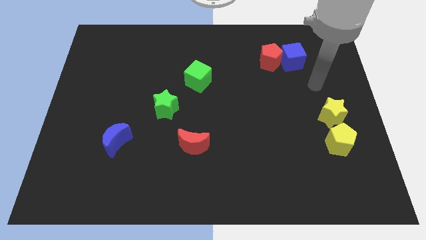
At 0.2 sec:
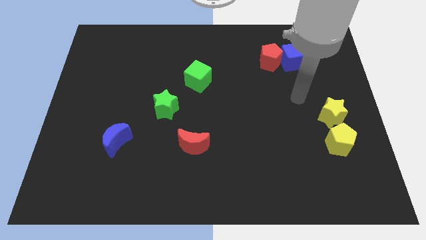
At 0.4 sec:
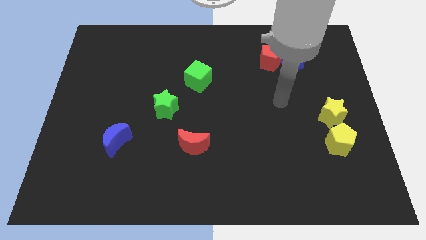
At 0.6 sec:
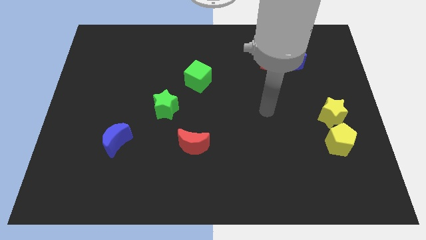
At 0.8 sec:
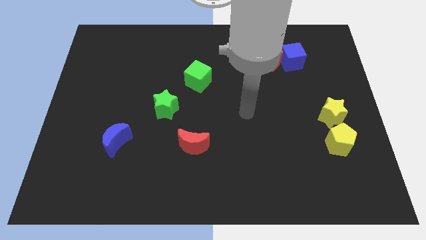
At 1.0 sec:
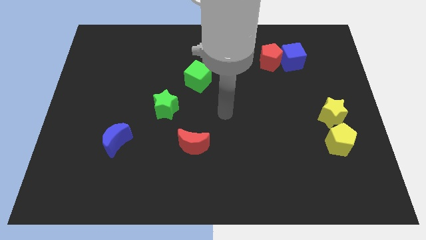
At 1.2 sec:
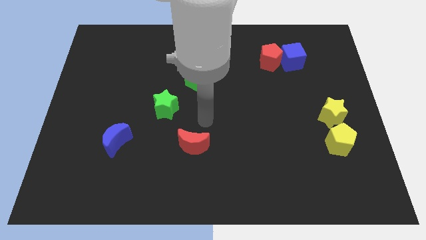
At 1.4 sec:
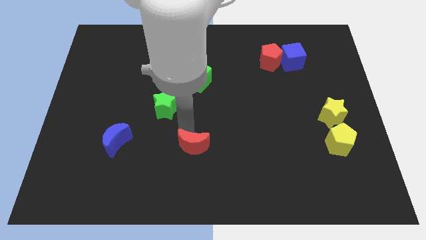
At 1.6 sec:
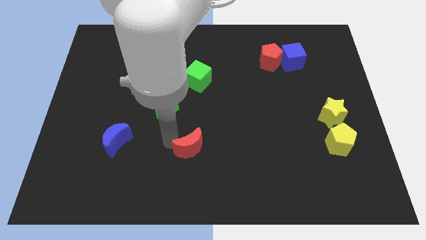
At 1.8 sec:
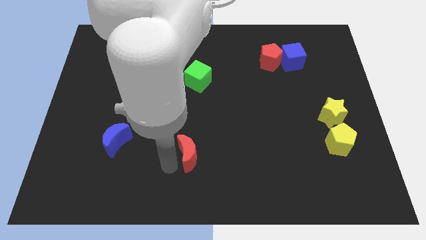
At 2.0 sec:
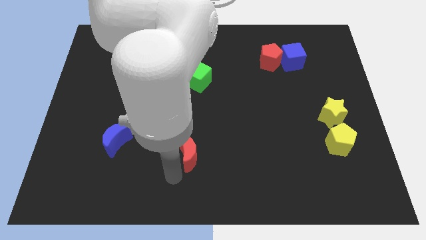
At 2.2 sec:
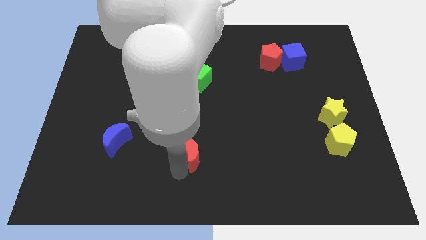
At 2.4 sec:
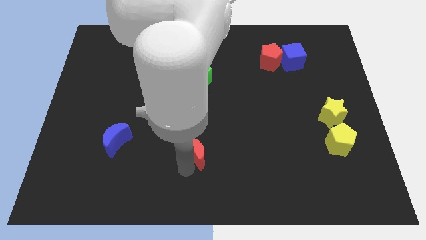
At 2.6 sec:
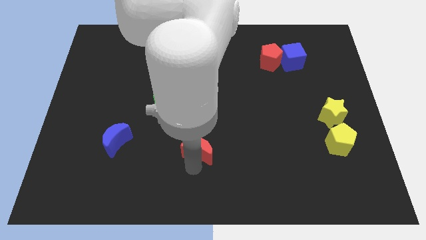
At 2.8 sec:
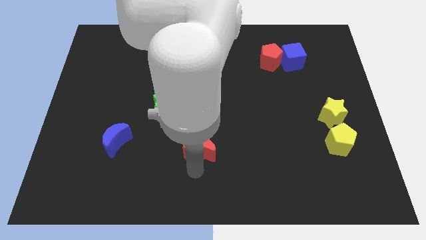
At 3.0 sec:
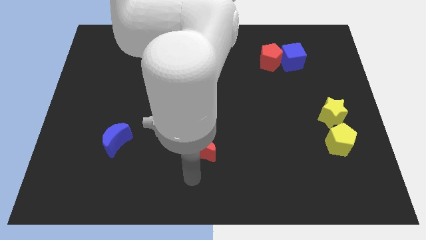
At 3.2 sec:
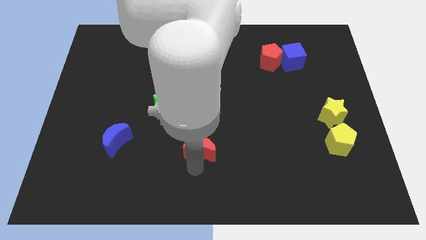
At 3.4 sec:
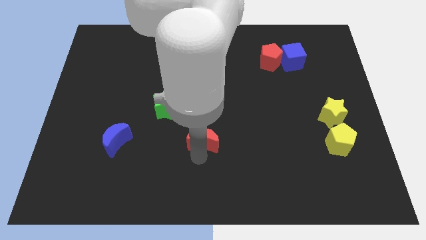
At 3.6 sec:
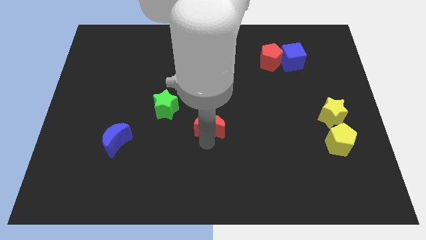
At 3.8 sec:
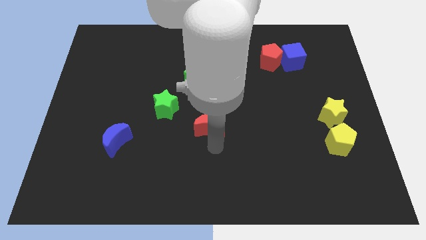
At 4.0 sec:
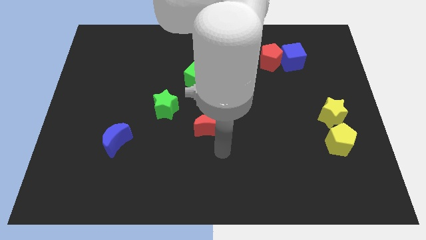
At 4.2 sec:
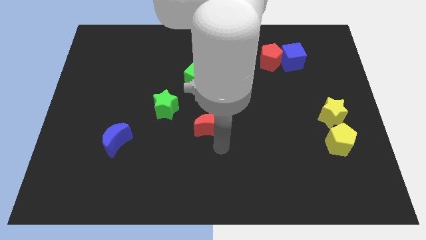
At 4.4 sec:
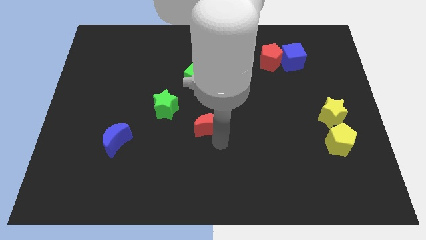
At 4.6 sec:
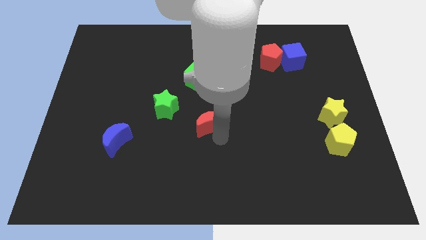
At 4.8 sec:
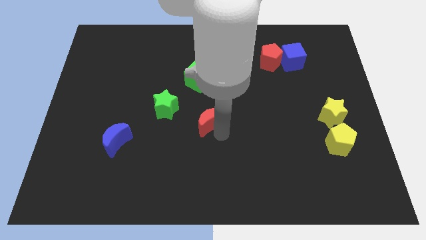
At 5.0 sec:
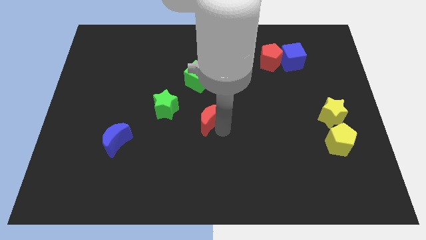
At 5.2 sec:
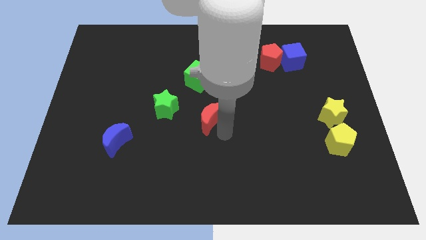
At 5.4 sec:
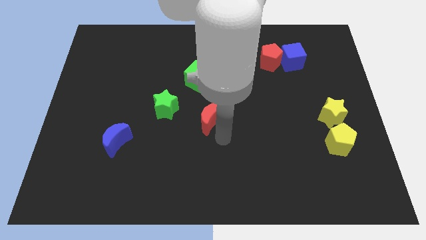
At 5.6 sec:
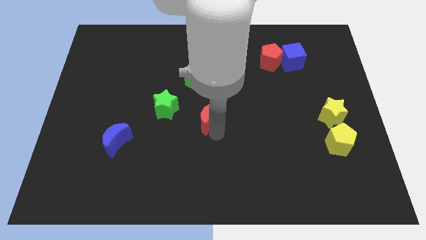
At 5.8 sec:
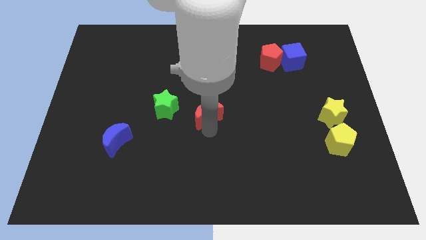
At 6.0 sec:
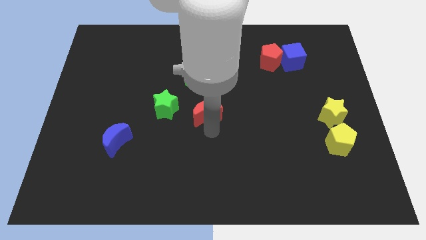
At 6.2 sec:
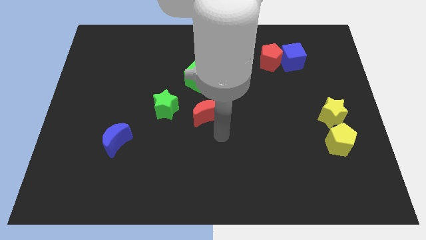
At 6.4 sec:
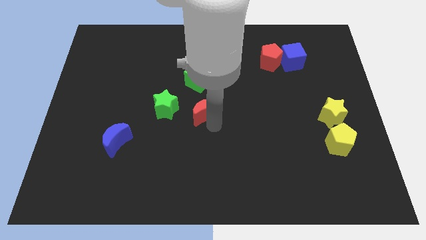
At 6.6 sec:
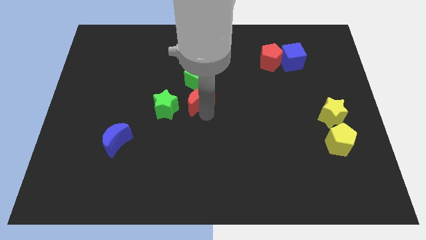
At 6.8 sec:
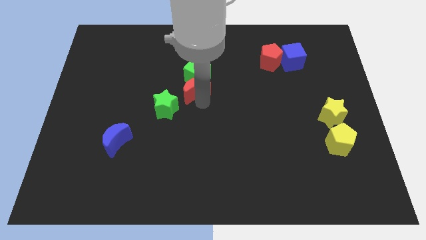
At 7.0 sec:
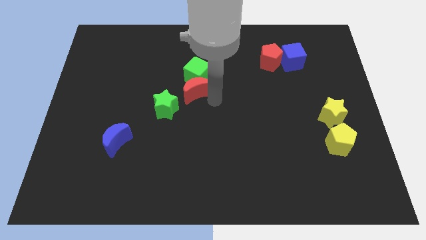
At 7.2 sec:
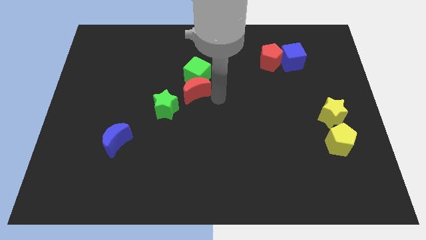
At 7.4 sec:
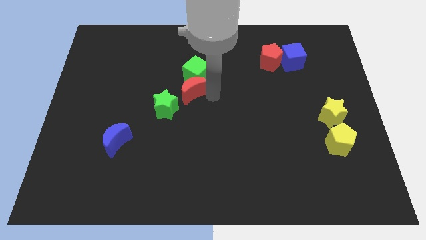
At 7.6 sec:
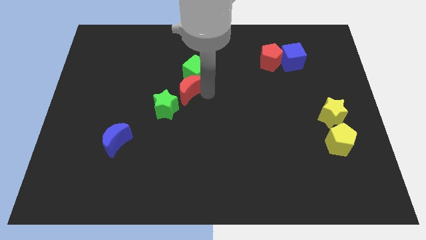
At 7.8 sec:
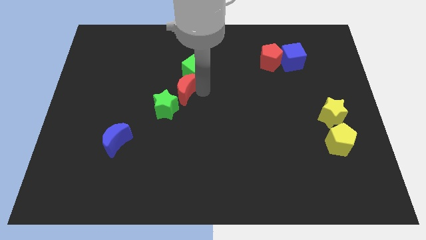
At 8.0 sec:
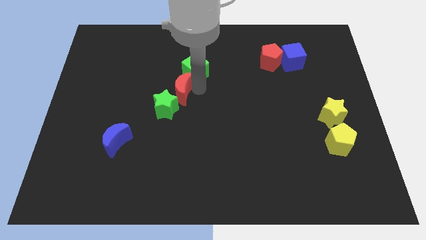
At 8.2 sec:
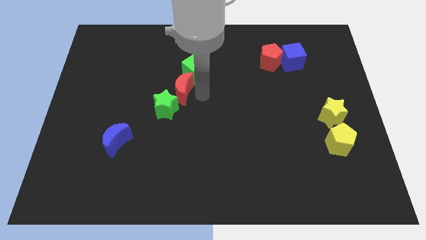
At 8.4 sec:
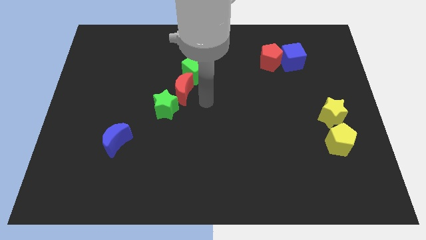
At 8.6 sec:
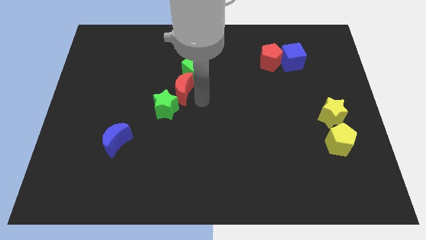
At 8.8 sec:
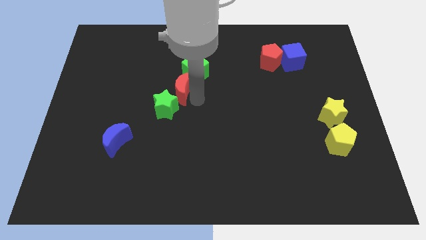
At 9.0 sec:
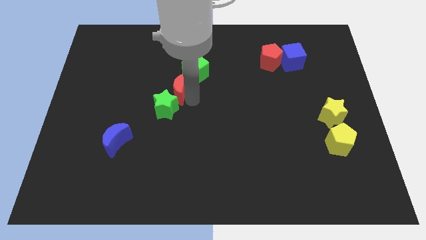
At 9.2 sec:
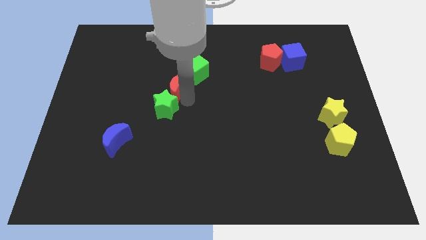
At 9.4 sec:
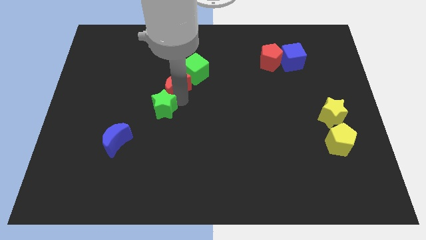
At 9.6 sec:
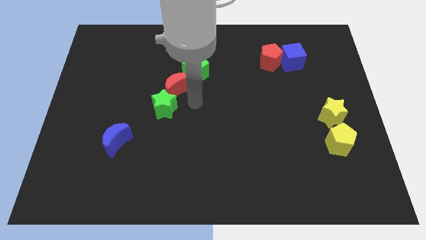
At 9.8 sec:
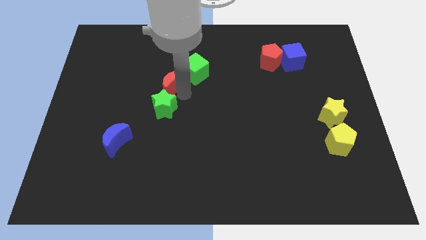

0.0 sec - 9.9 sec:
push the red moon to the left side of the green cube

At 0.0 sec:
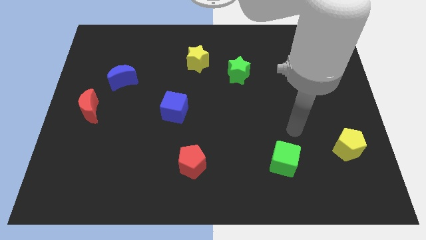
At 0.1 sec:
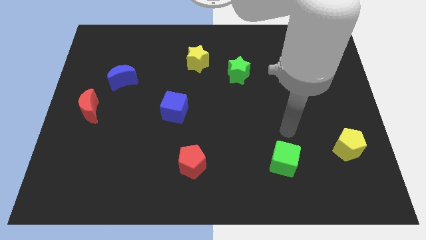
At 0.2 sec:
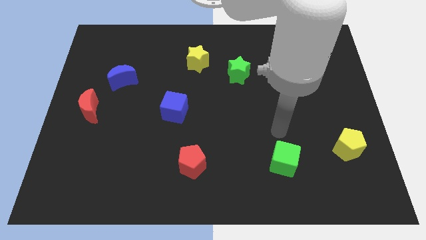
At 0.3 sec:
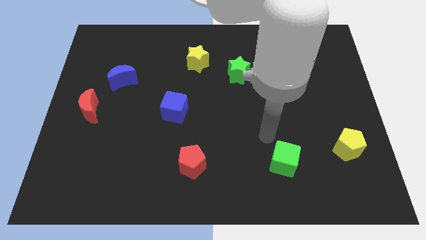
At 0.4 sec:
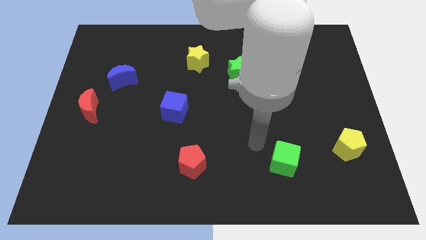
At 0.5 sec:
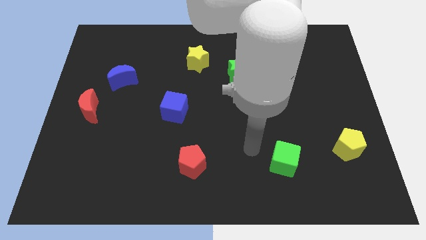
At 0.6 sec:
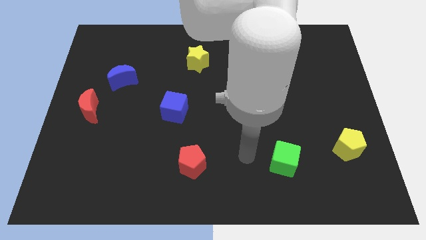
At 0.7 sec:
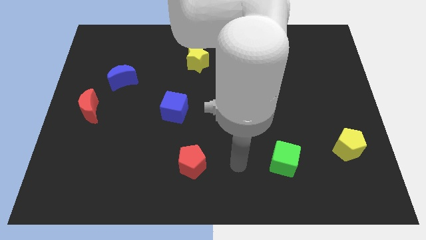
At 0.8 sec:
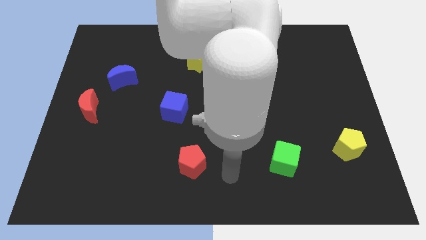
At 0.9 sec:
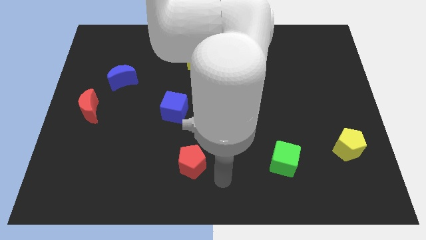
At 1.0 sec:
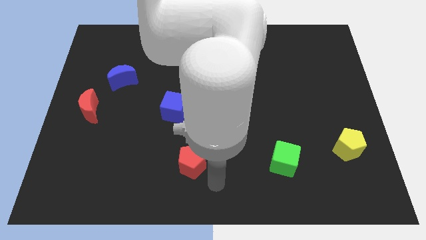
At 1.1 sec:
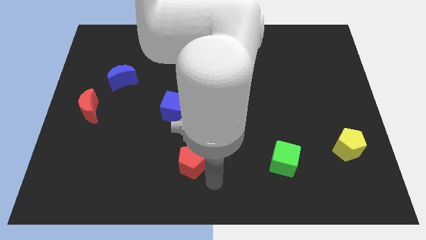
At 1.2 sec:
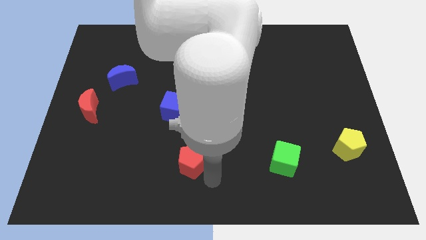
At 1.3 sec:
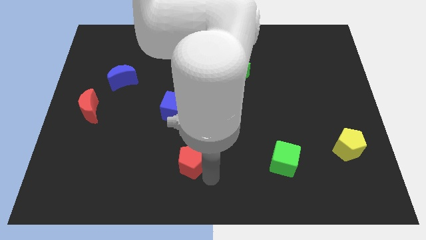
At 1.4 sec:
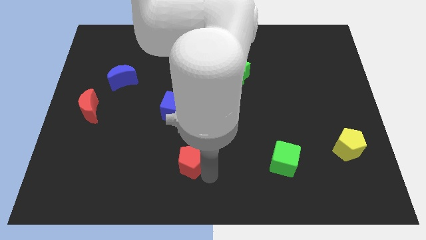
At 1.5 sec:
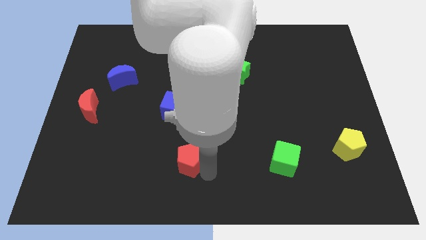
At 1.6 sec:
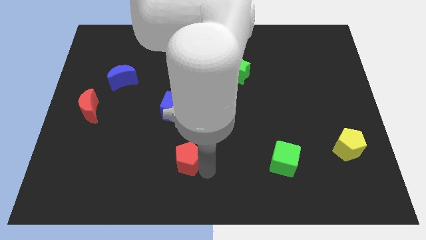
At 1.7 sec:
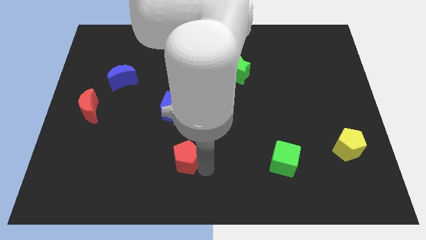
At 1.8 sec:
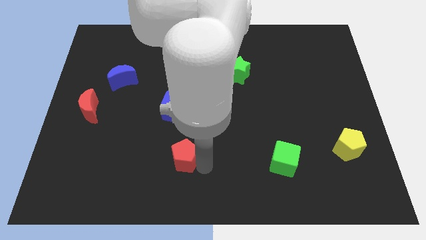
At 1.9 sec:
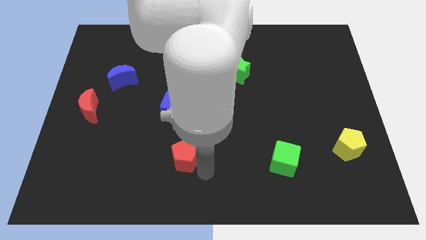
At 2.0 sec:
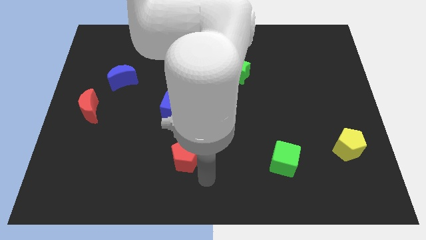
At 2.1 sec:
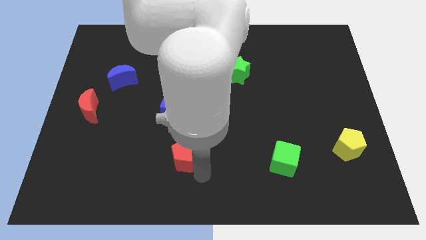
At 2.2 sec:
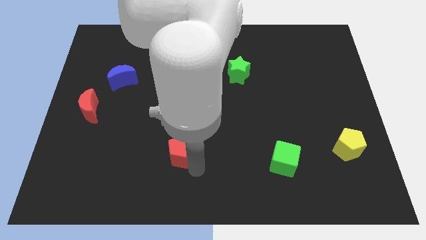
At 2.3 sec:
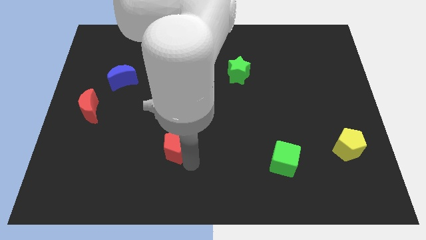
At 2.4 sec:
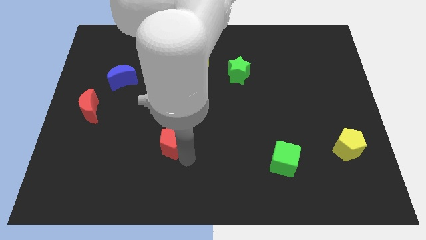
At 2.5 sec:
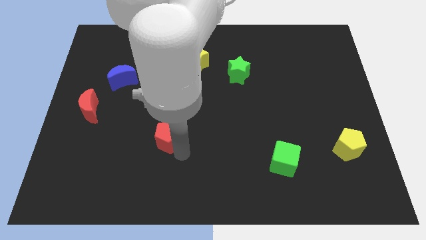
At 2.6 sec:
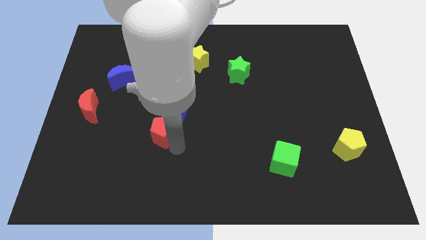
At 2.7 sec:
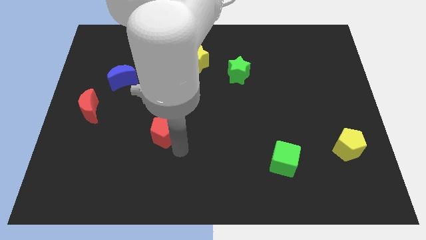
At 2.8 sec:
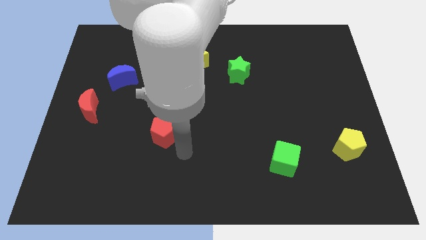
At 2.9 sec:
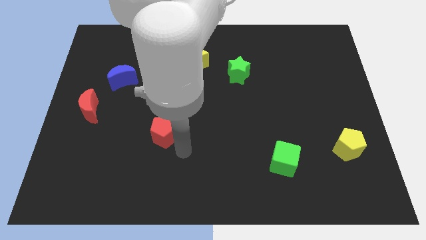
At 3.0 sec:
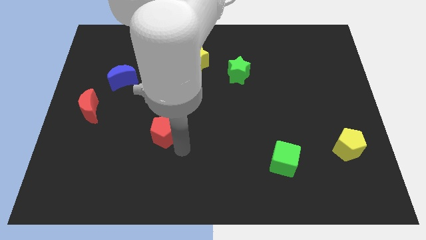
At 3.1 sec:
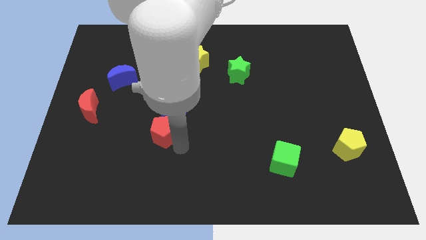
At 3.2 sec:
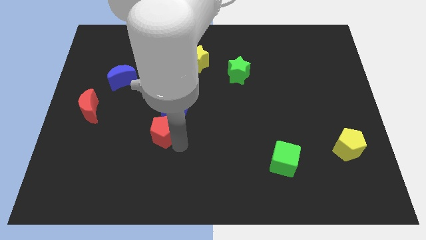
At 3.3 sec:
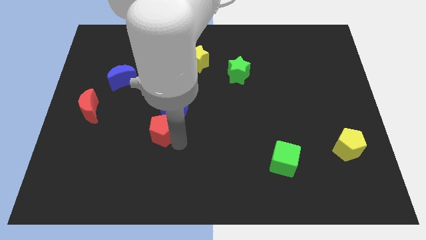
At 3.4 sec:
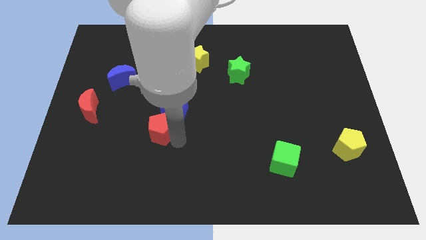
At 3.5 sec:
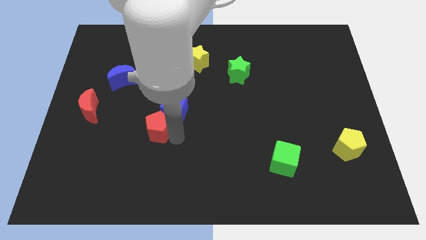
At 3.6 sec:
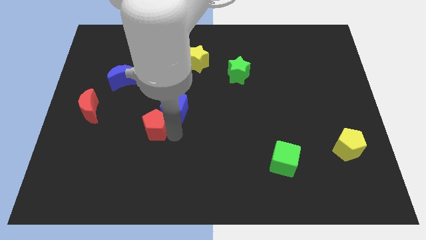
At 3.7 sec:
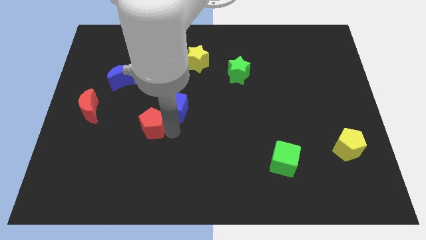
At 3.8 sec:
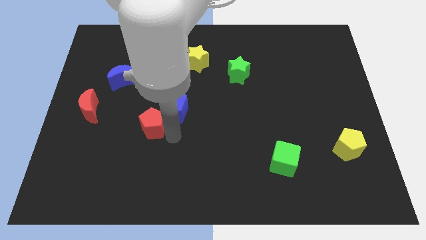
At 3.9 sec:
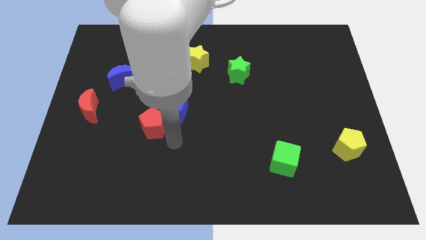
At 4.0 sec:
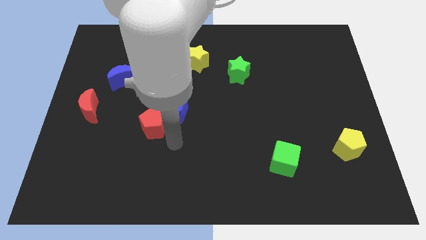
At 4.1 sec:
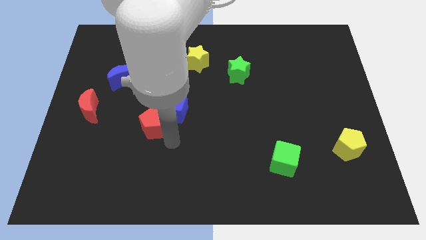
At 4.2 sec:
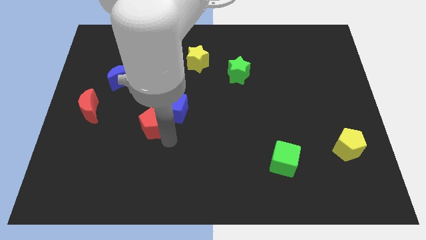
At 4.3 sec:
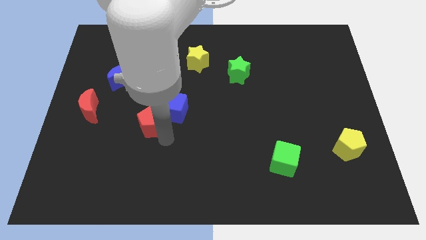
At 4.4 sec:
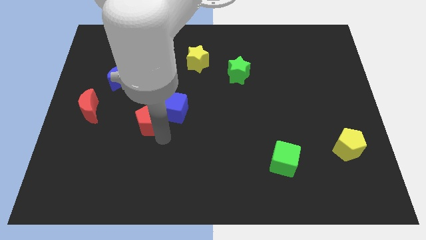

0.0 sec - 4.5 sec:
push the red pentagon to the right side of the red moon
